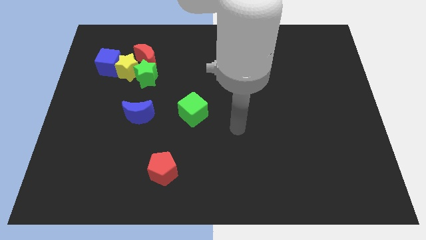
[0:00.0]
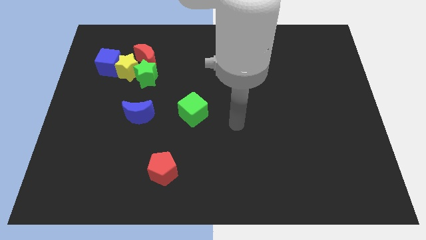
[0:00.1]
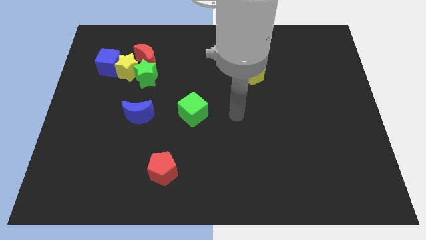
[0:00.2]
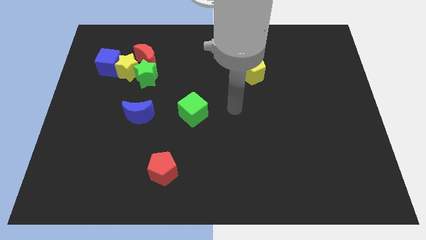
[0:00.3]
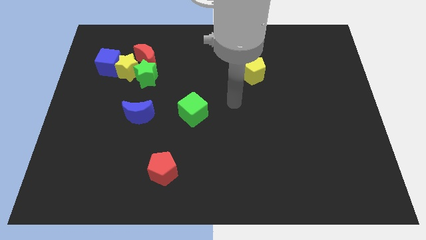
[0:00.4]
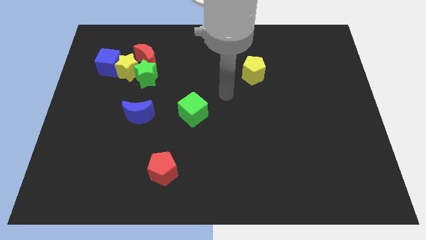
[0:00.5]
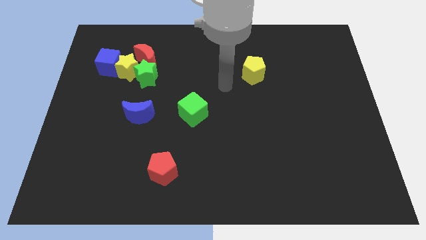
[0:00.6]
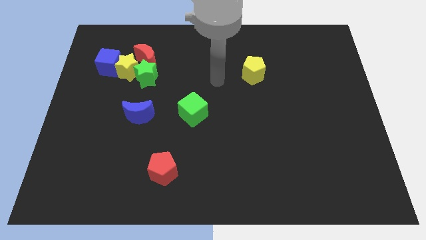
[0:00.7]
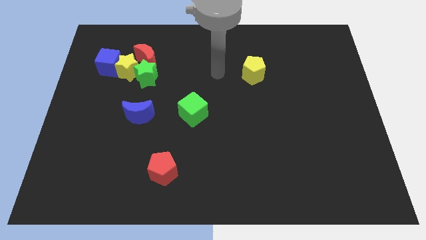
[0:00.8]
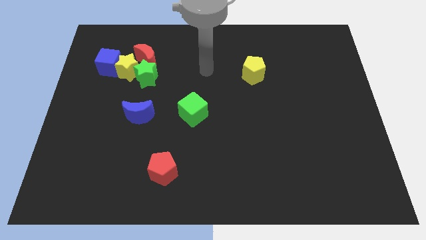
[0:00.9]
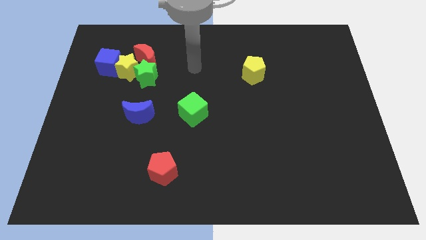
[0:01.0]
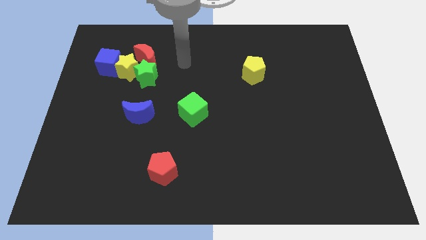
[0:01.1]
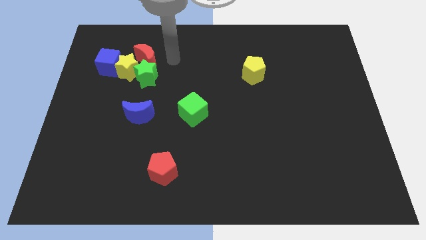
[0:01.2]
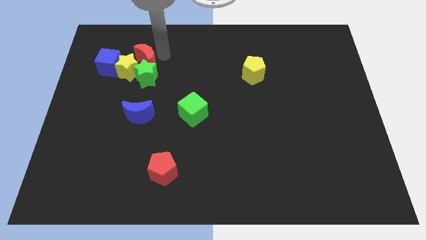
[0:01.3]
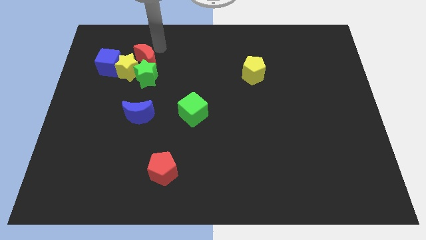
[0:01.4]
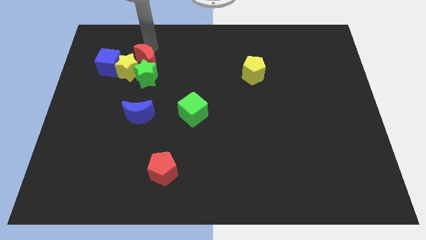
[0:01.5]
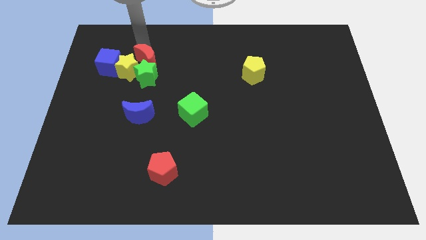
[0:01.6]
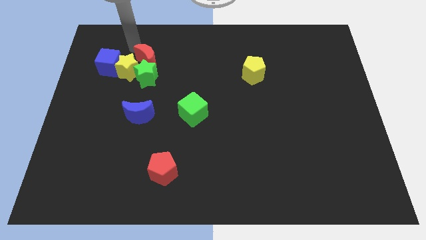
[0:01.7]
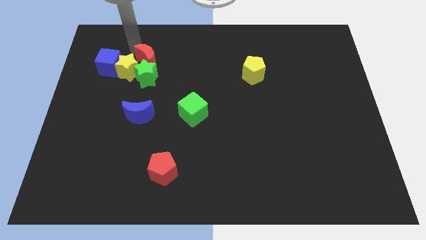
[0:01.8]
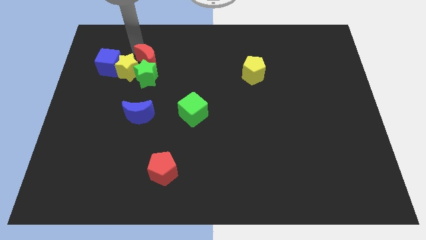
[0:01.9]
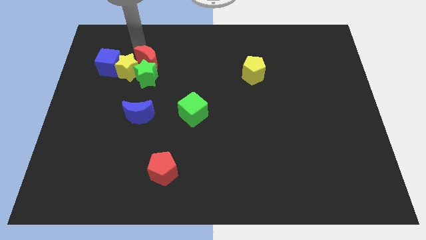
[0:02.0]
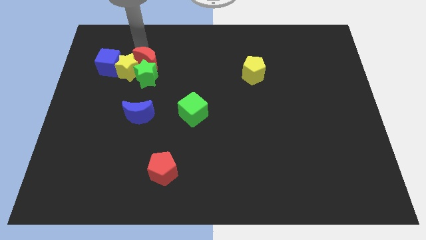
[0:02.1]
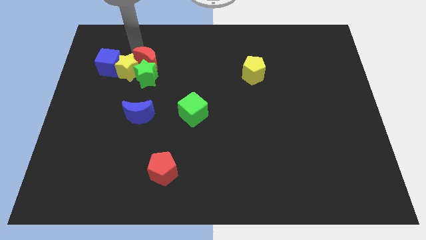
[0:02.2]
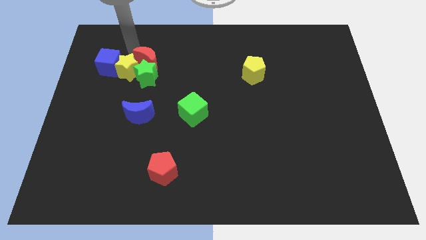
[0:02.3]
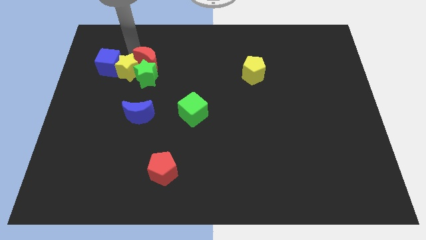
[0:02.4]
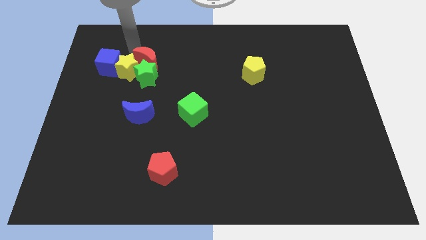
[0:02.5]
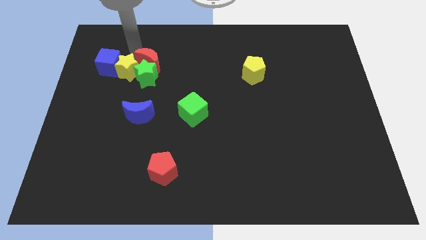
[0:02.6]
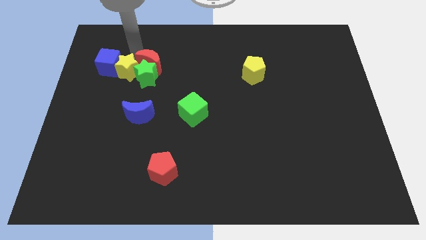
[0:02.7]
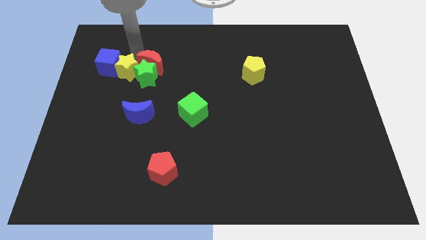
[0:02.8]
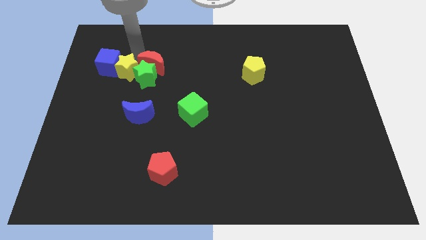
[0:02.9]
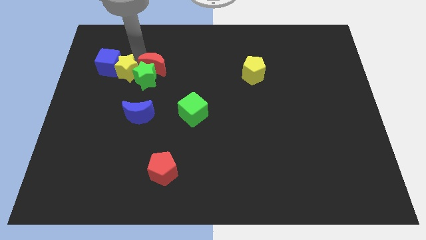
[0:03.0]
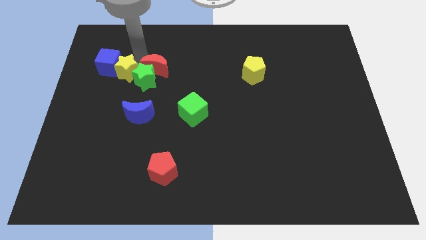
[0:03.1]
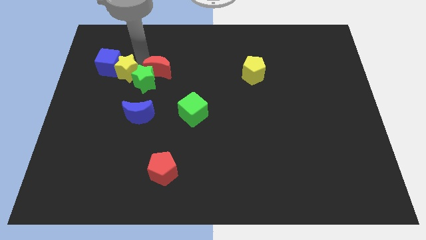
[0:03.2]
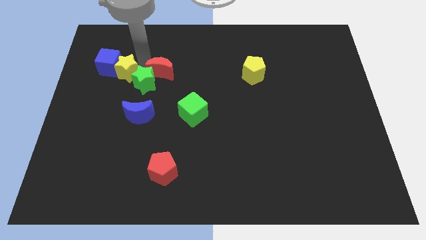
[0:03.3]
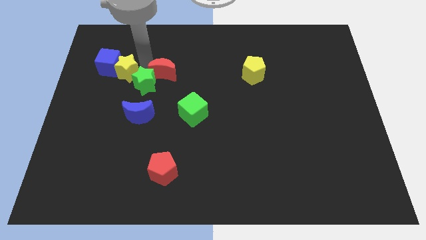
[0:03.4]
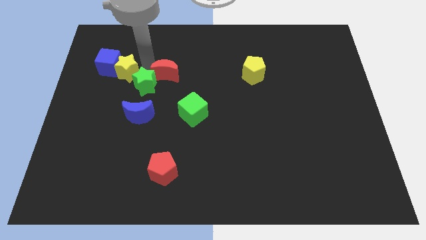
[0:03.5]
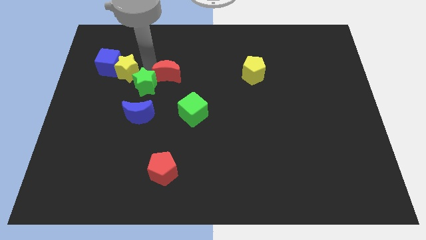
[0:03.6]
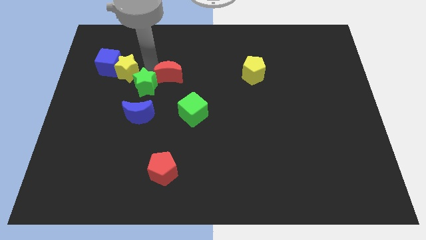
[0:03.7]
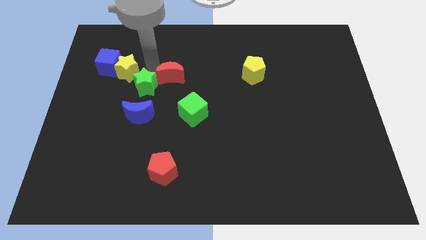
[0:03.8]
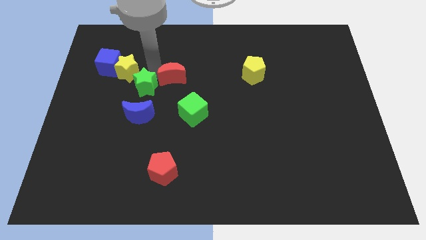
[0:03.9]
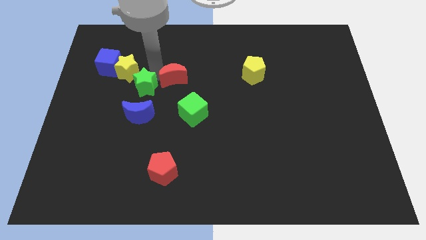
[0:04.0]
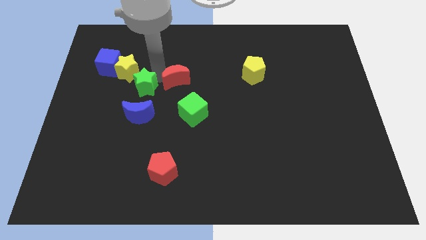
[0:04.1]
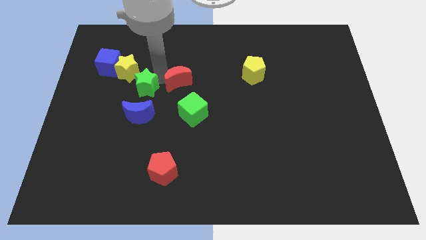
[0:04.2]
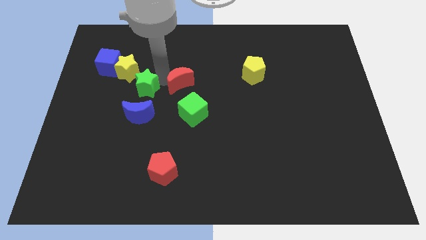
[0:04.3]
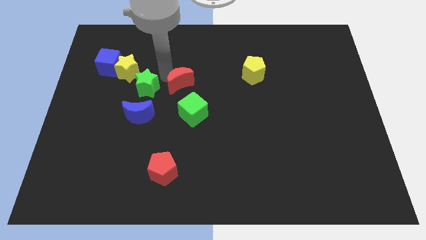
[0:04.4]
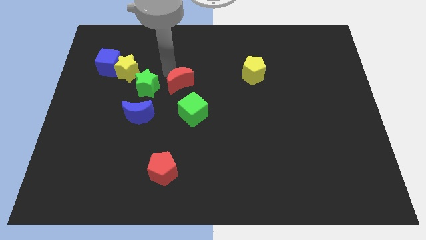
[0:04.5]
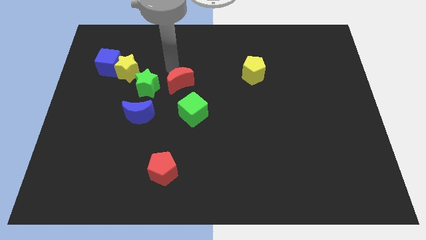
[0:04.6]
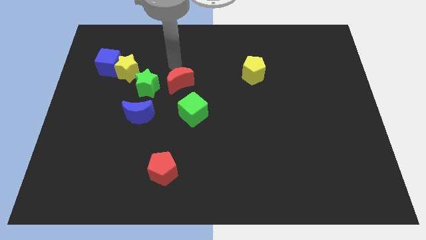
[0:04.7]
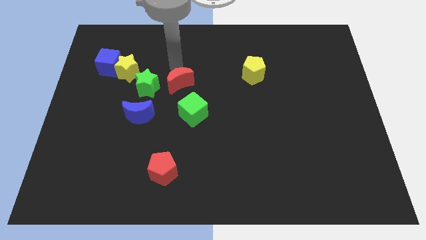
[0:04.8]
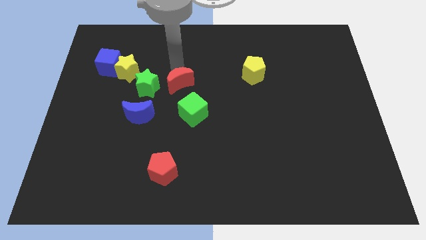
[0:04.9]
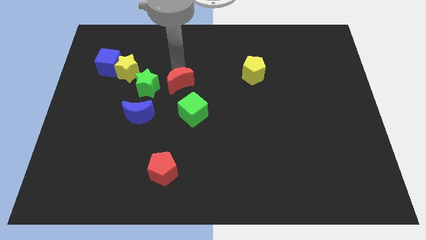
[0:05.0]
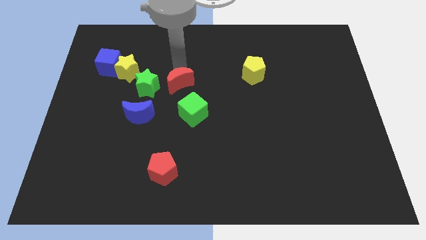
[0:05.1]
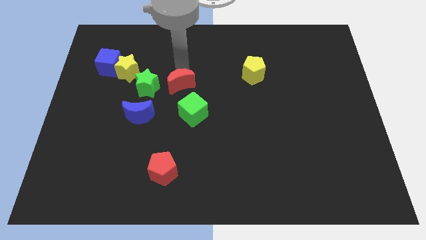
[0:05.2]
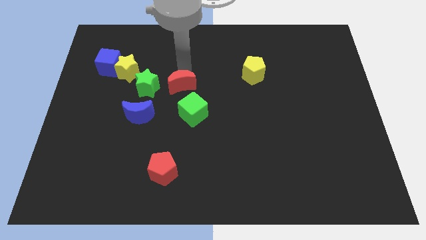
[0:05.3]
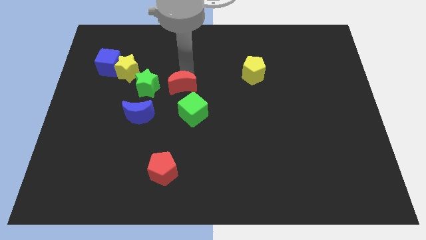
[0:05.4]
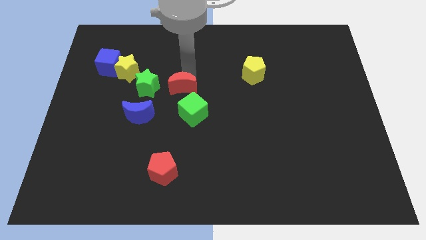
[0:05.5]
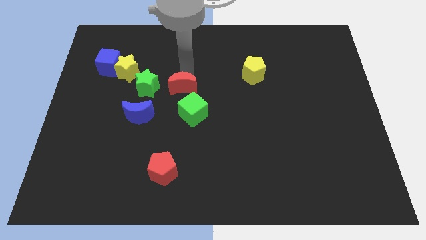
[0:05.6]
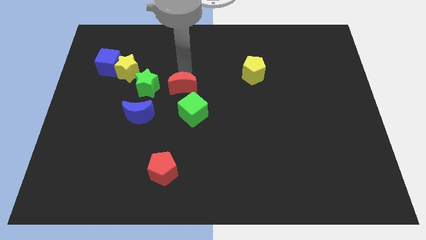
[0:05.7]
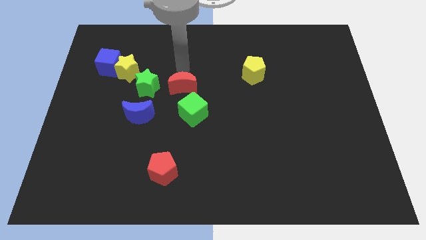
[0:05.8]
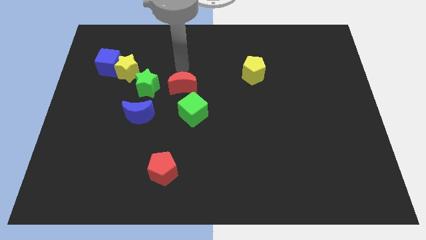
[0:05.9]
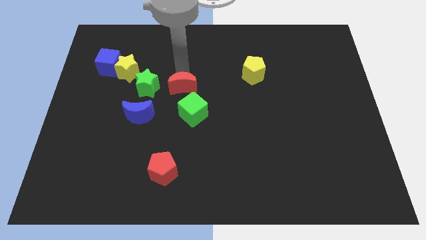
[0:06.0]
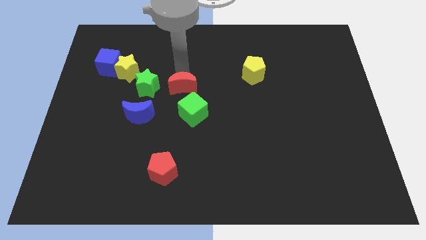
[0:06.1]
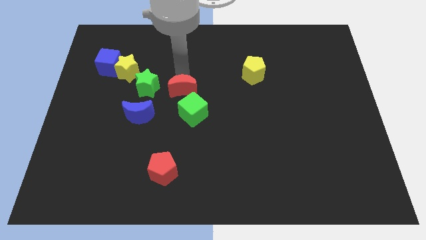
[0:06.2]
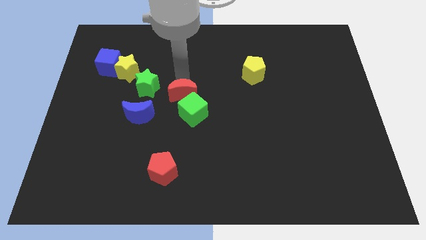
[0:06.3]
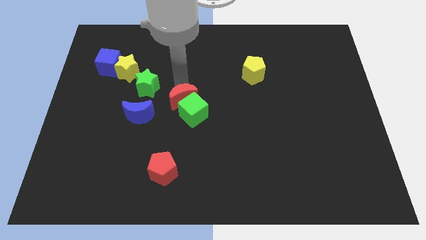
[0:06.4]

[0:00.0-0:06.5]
slide the red moon towards the green cube

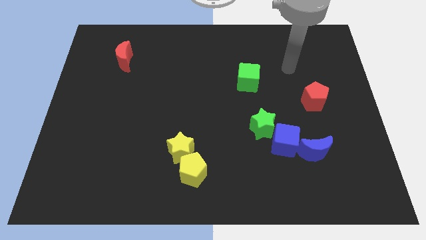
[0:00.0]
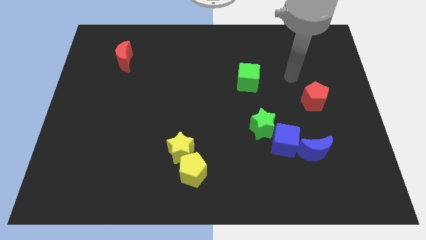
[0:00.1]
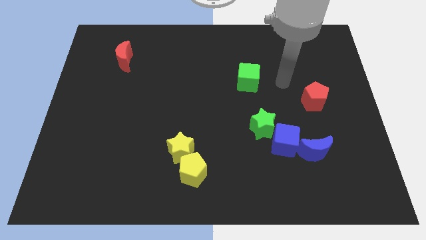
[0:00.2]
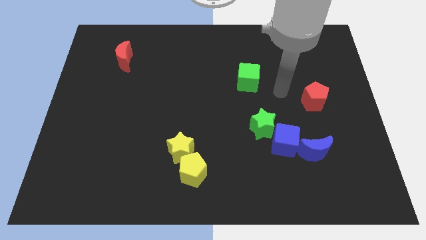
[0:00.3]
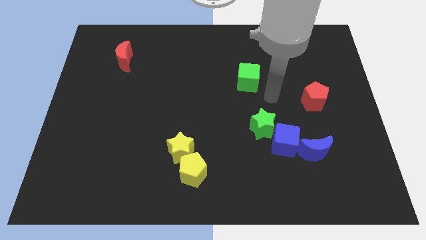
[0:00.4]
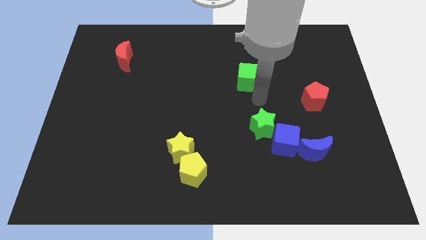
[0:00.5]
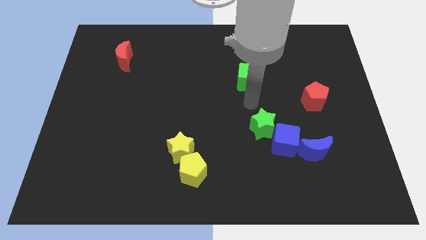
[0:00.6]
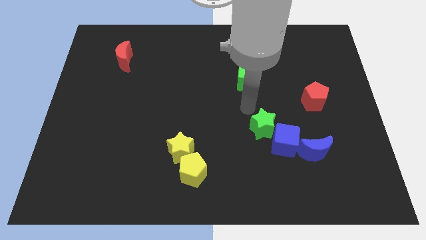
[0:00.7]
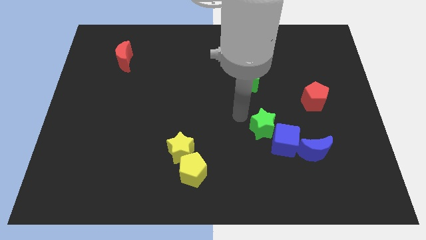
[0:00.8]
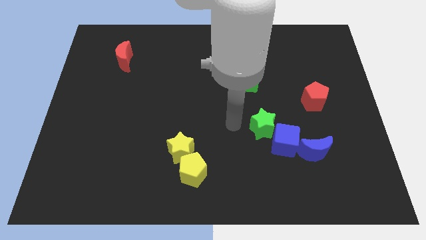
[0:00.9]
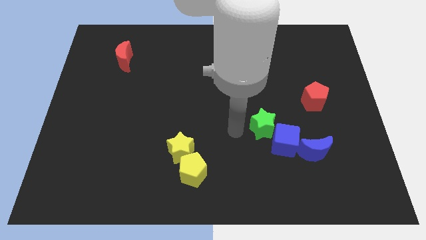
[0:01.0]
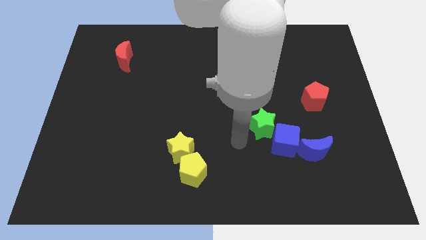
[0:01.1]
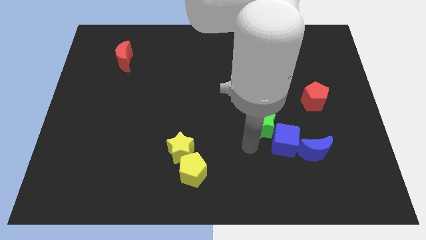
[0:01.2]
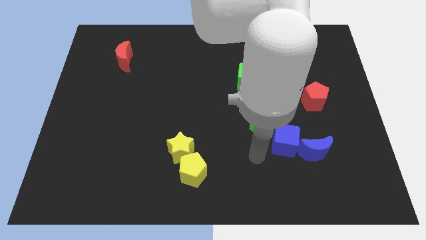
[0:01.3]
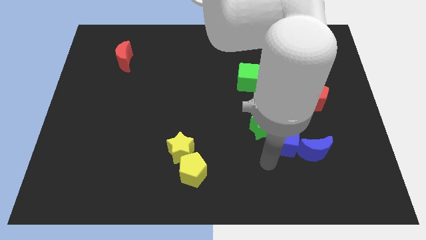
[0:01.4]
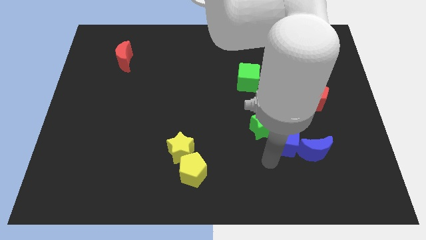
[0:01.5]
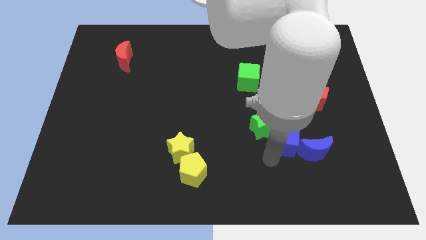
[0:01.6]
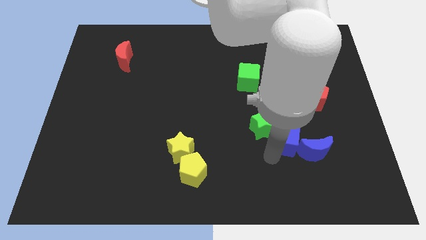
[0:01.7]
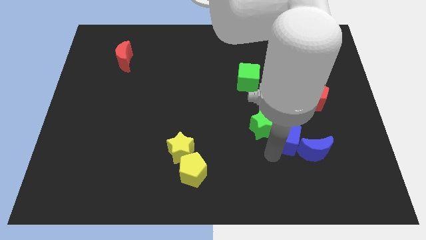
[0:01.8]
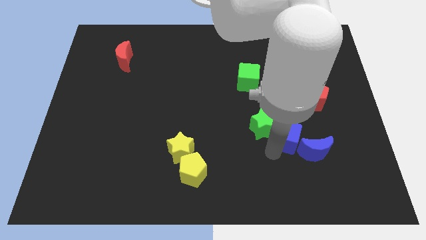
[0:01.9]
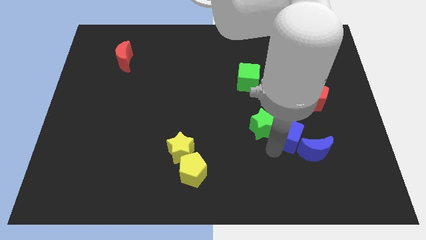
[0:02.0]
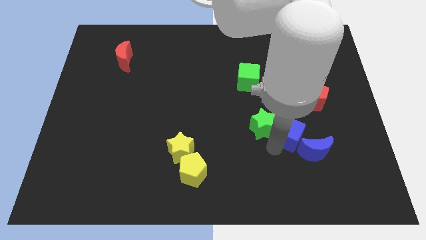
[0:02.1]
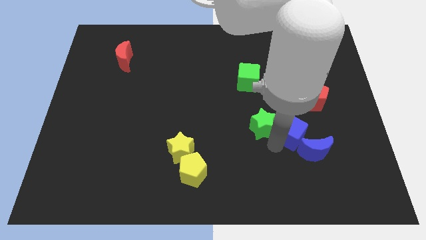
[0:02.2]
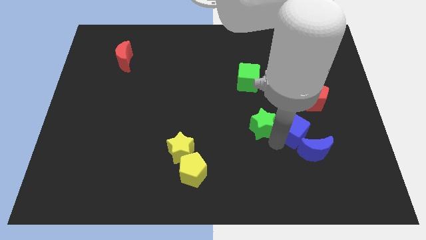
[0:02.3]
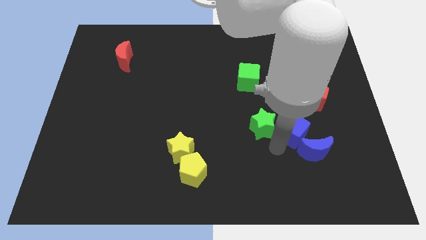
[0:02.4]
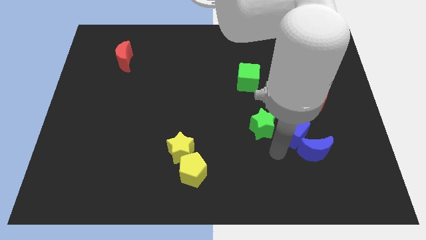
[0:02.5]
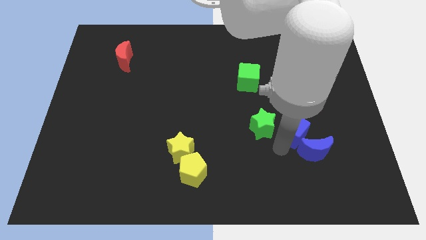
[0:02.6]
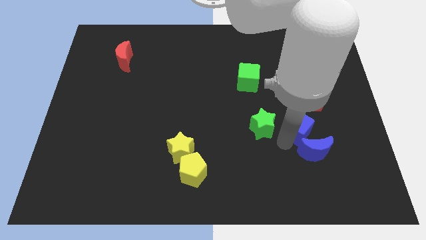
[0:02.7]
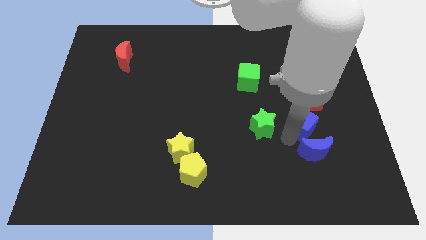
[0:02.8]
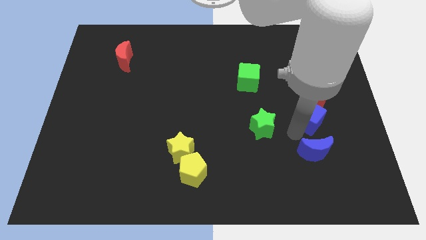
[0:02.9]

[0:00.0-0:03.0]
slide the blue cube next to the red pentagon
